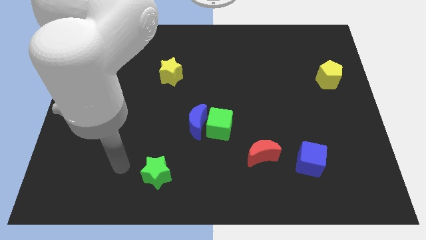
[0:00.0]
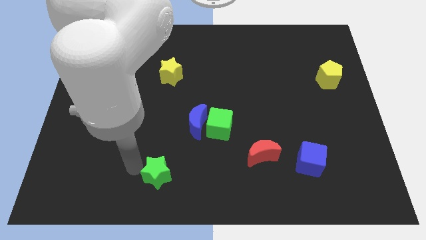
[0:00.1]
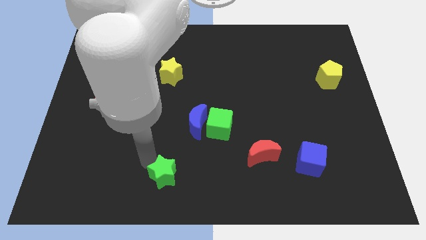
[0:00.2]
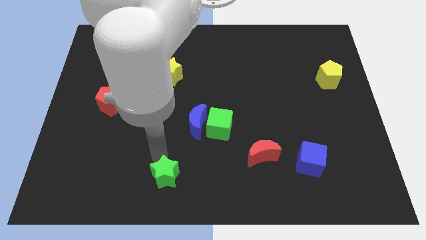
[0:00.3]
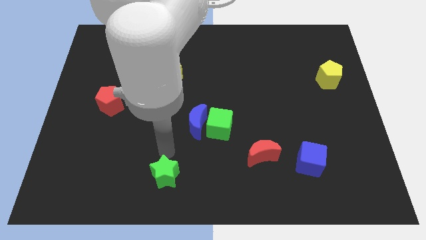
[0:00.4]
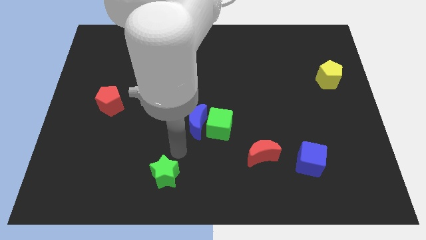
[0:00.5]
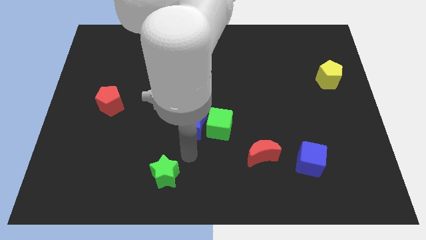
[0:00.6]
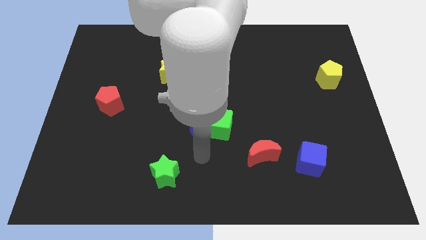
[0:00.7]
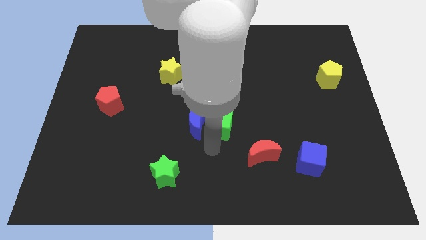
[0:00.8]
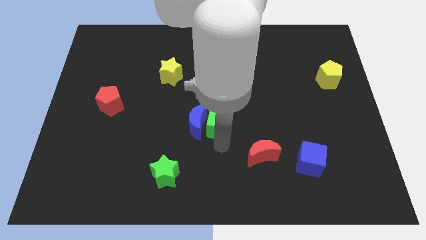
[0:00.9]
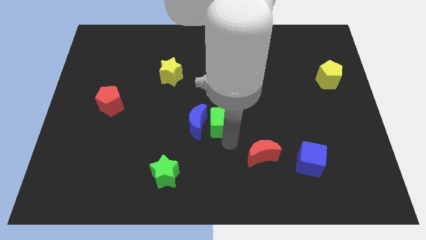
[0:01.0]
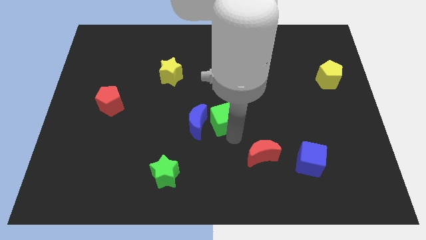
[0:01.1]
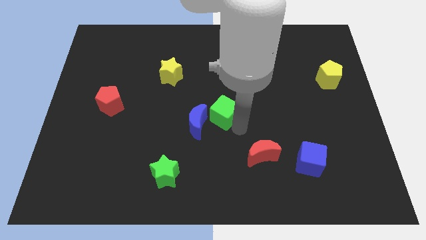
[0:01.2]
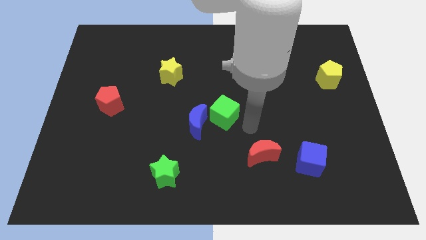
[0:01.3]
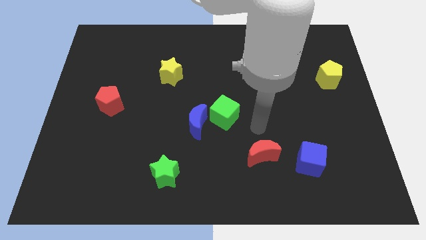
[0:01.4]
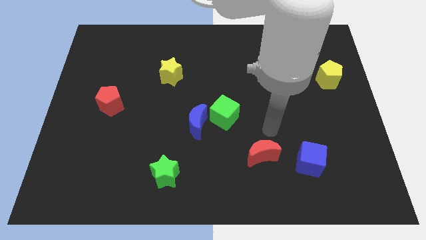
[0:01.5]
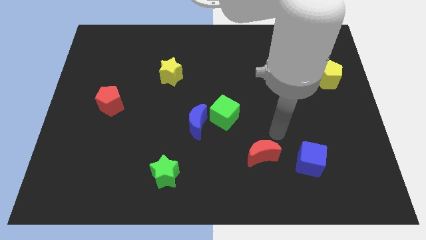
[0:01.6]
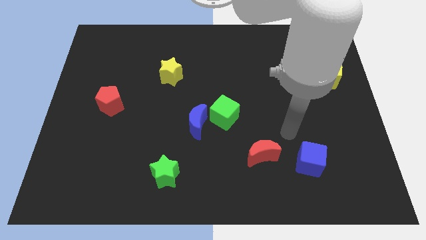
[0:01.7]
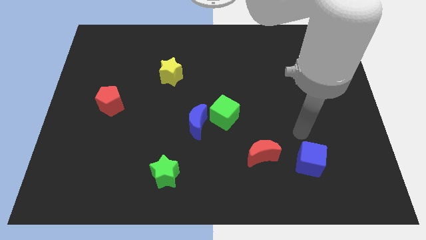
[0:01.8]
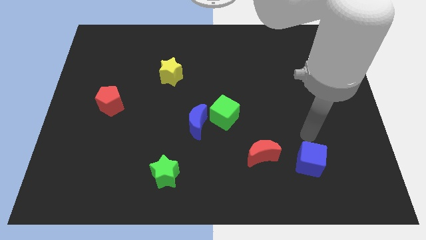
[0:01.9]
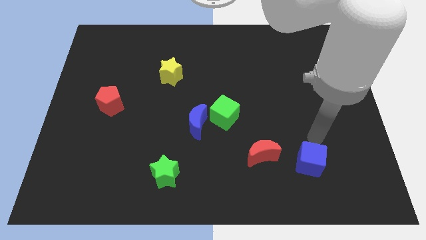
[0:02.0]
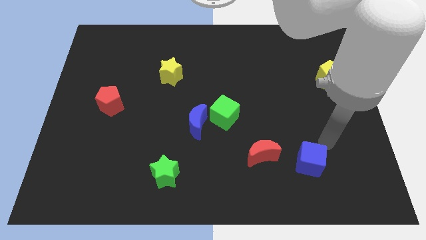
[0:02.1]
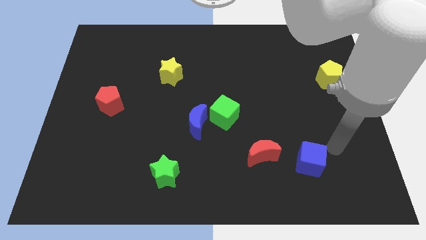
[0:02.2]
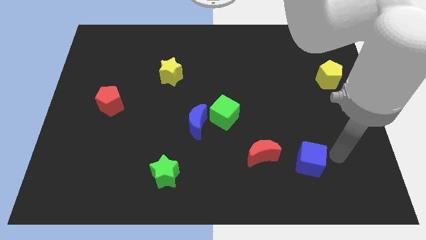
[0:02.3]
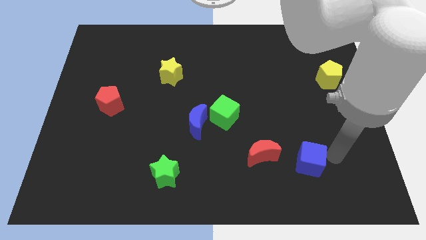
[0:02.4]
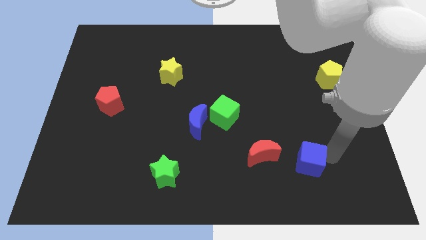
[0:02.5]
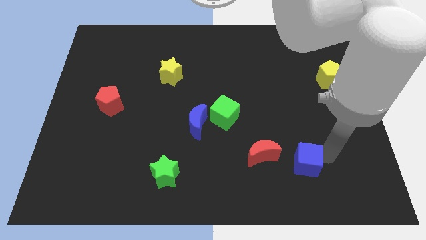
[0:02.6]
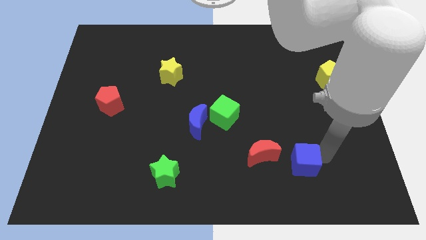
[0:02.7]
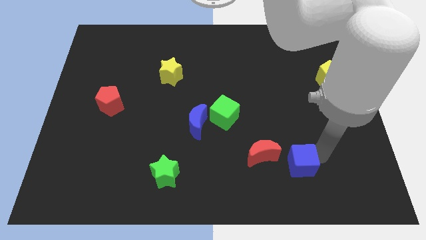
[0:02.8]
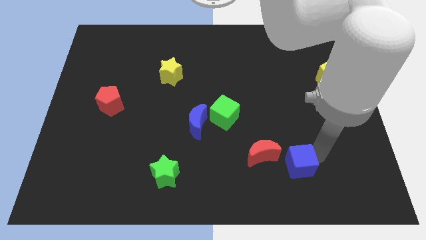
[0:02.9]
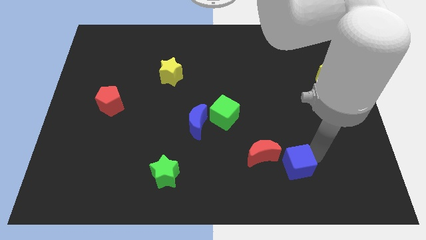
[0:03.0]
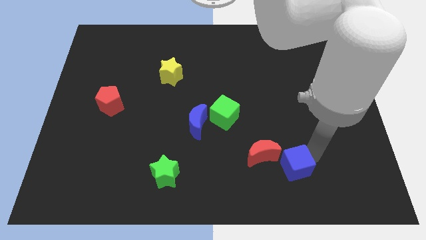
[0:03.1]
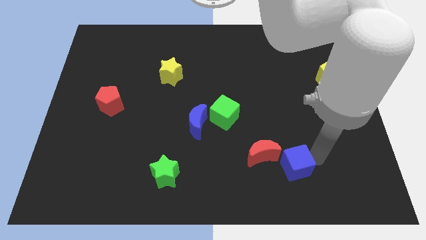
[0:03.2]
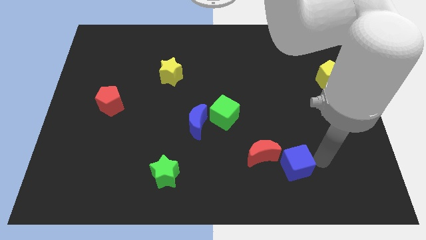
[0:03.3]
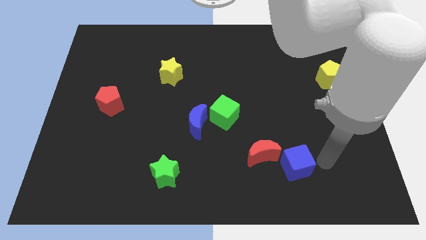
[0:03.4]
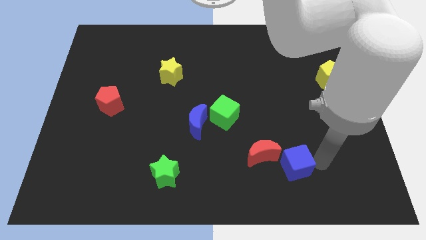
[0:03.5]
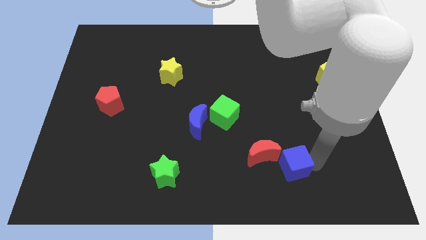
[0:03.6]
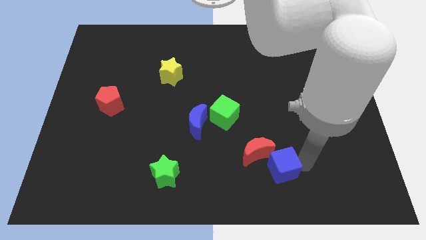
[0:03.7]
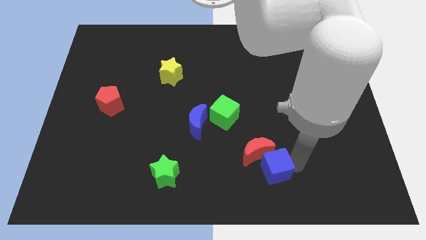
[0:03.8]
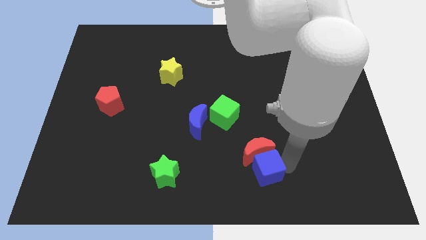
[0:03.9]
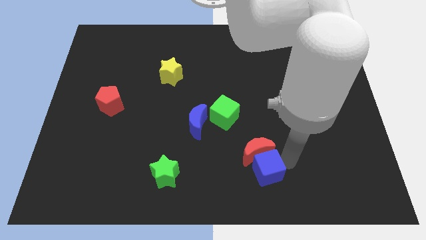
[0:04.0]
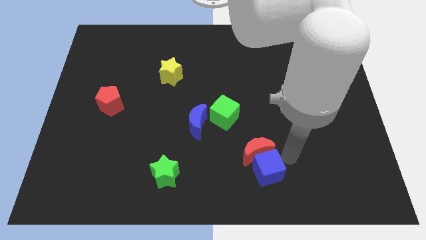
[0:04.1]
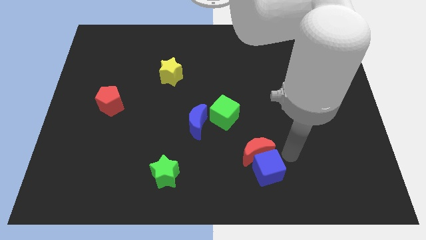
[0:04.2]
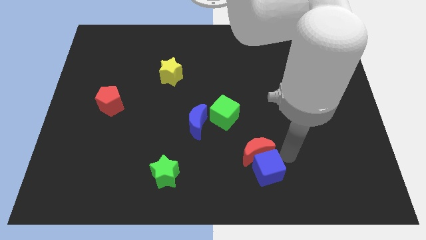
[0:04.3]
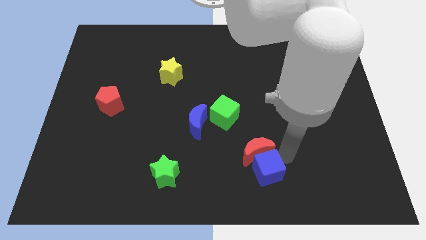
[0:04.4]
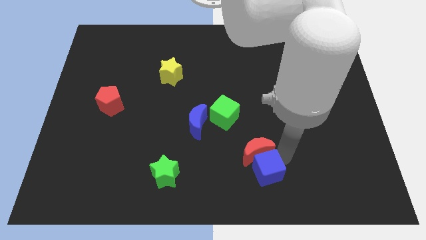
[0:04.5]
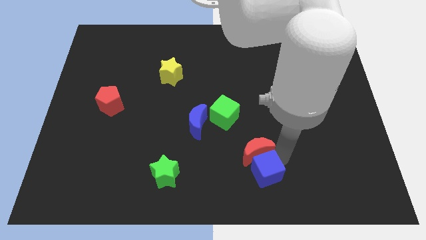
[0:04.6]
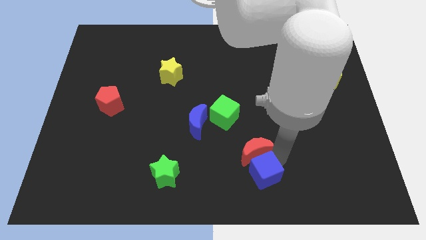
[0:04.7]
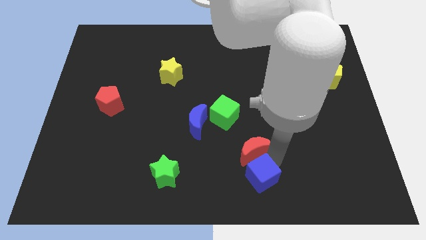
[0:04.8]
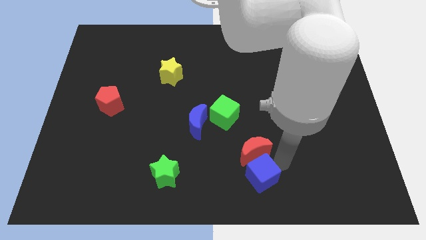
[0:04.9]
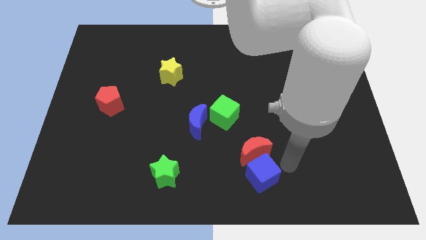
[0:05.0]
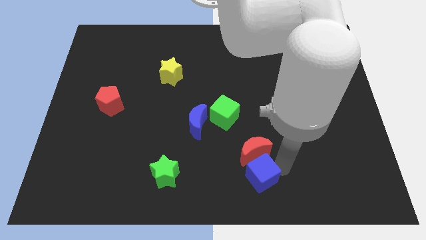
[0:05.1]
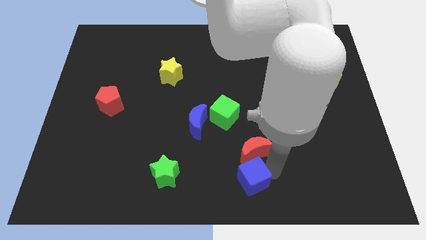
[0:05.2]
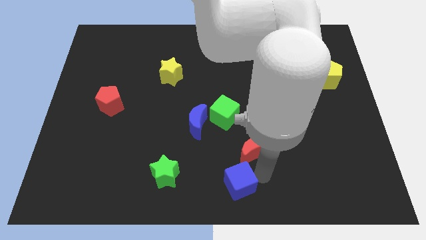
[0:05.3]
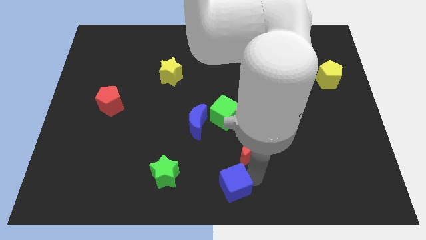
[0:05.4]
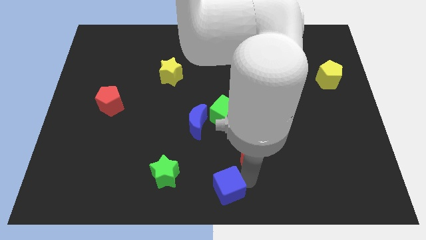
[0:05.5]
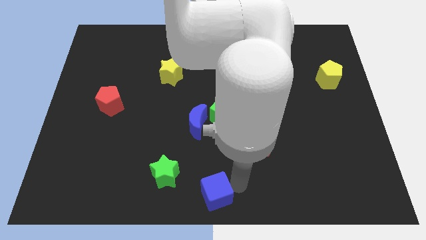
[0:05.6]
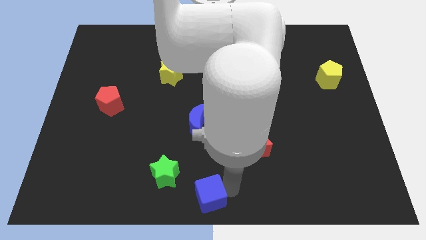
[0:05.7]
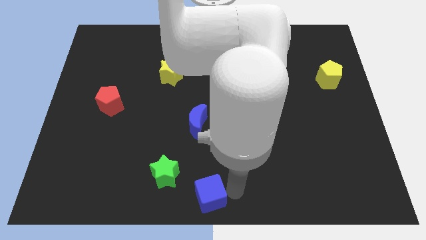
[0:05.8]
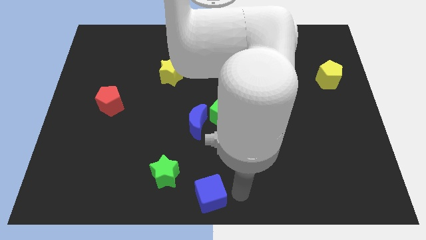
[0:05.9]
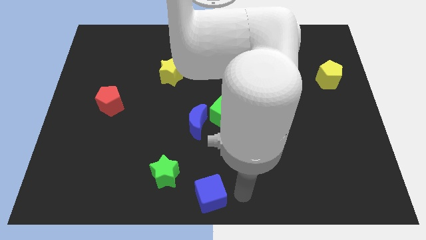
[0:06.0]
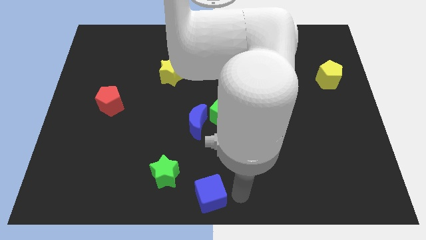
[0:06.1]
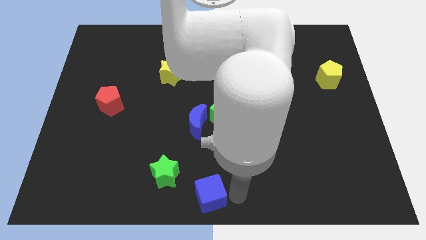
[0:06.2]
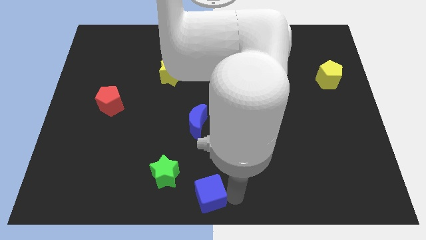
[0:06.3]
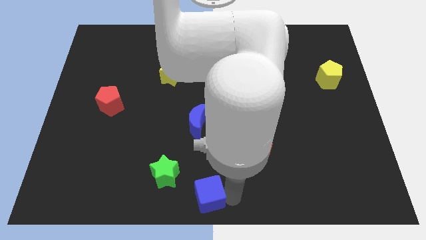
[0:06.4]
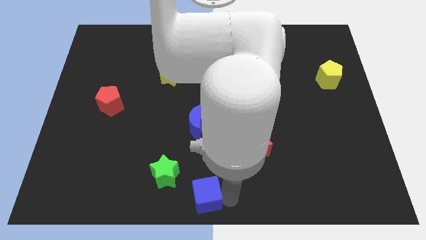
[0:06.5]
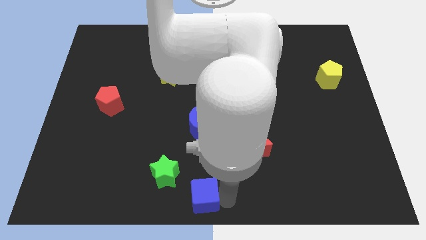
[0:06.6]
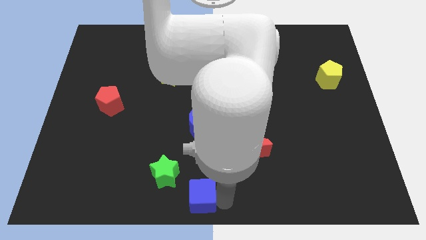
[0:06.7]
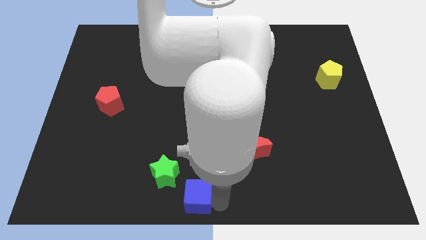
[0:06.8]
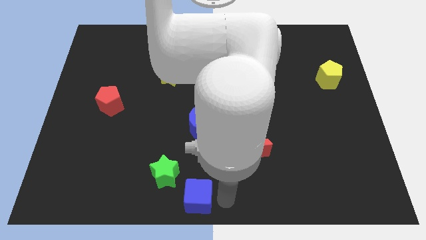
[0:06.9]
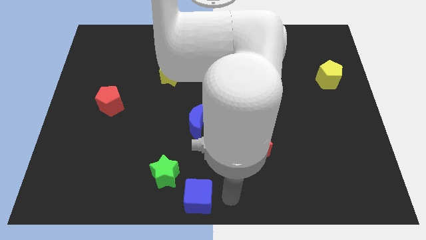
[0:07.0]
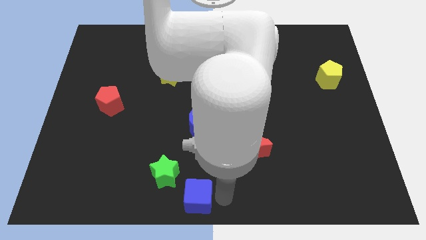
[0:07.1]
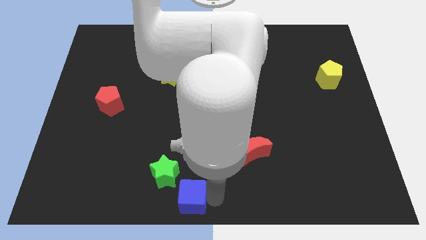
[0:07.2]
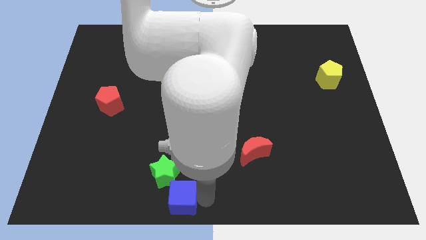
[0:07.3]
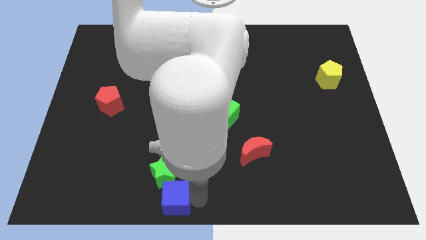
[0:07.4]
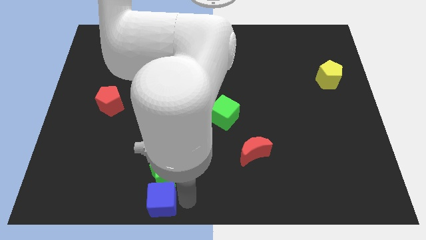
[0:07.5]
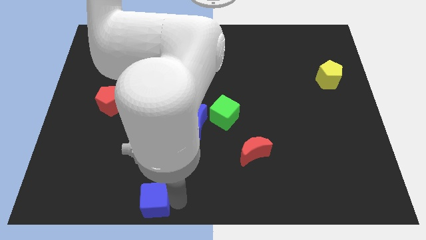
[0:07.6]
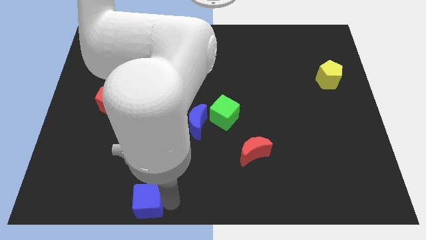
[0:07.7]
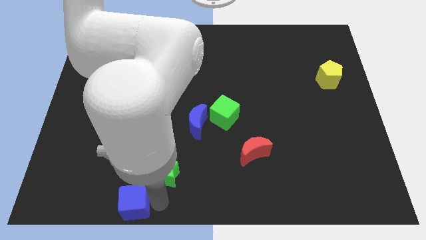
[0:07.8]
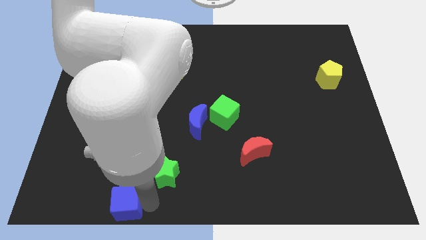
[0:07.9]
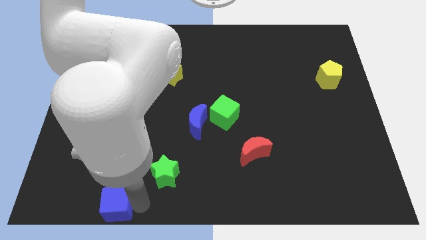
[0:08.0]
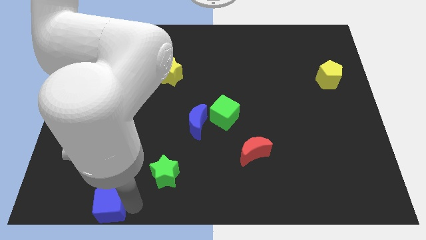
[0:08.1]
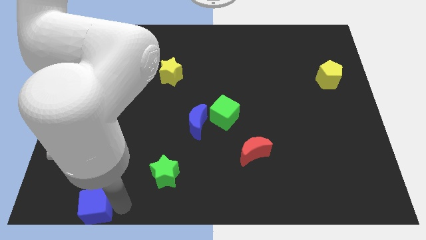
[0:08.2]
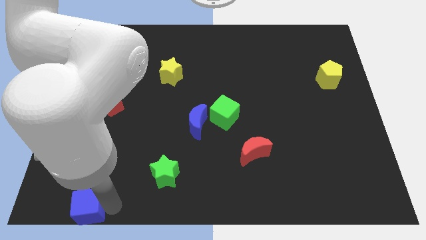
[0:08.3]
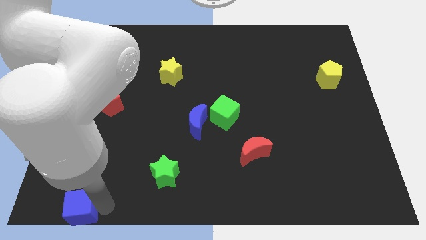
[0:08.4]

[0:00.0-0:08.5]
push the blue cube to the bottom left
